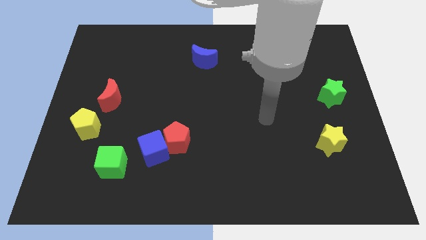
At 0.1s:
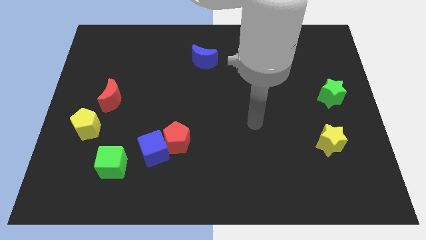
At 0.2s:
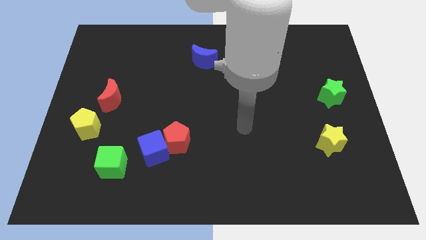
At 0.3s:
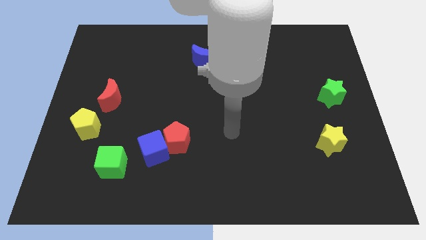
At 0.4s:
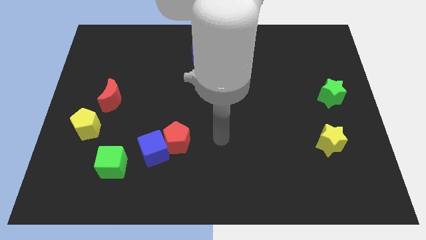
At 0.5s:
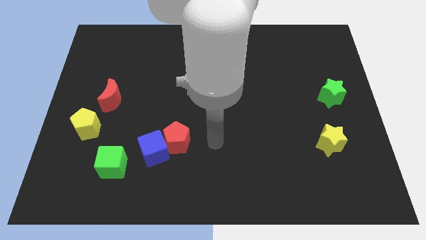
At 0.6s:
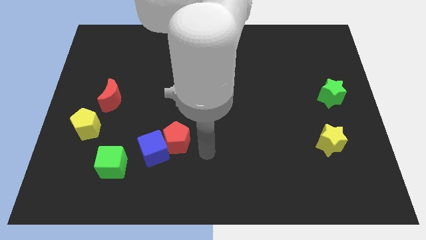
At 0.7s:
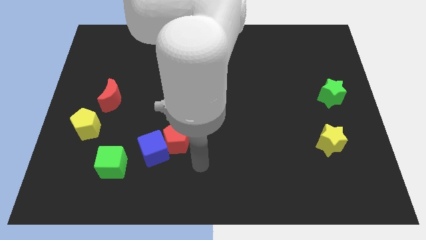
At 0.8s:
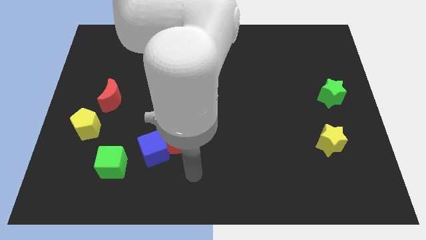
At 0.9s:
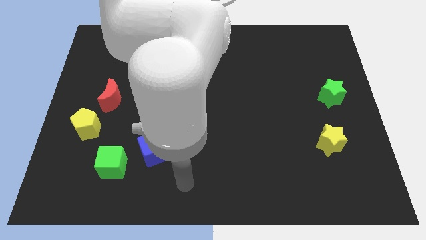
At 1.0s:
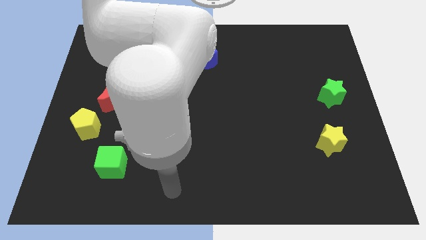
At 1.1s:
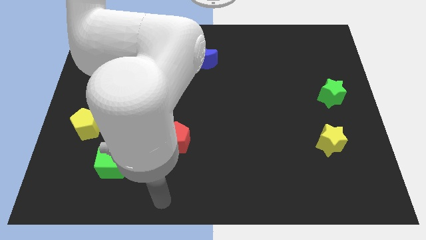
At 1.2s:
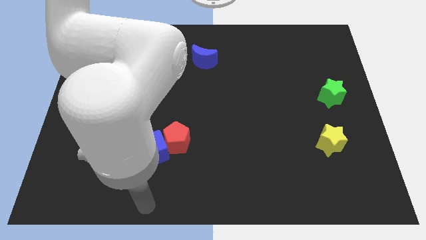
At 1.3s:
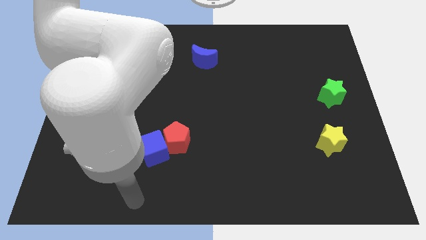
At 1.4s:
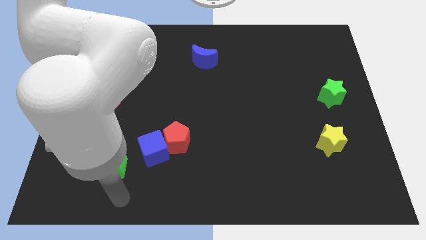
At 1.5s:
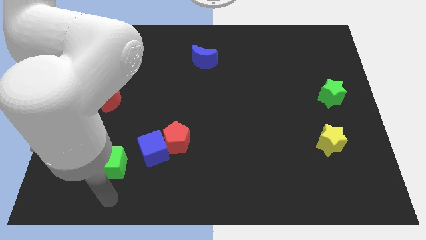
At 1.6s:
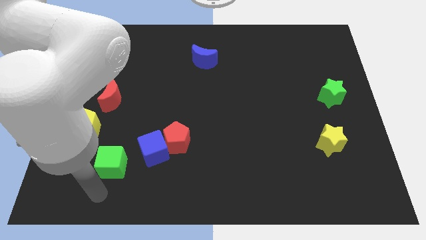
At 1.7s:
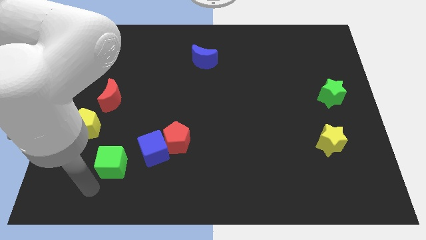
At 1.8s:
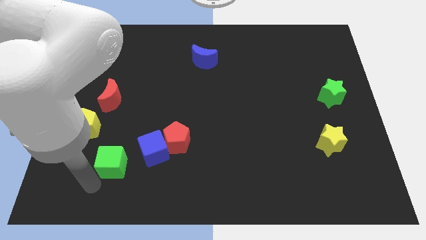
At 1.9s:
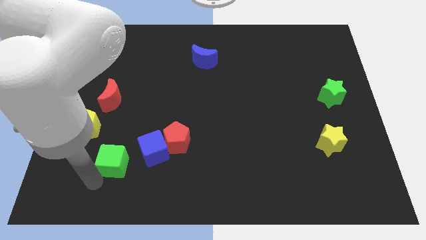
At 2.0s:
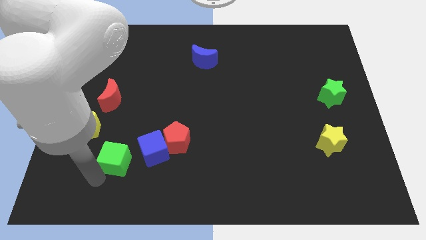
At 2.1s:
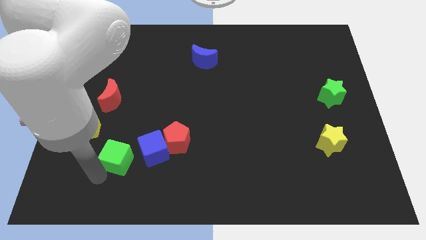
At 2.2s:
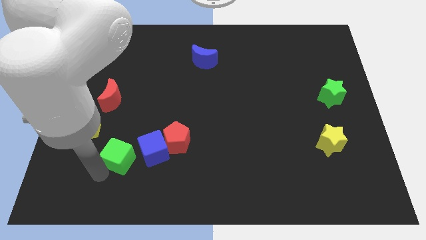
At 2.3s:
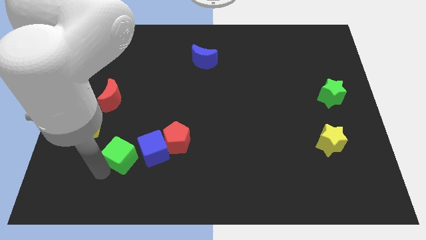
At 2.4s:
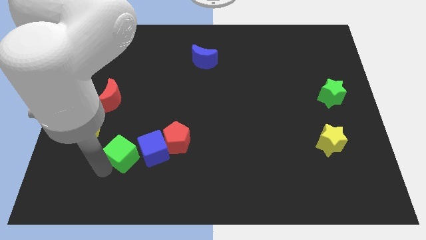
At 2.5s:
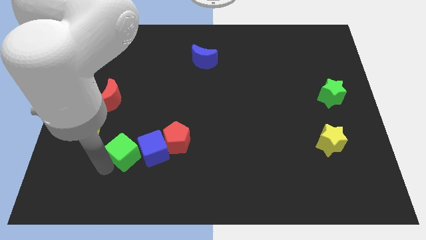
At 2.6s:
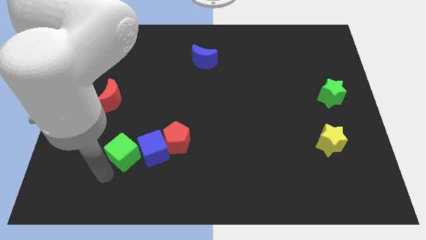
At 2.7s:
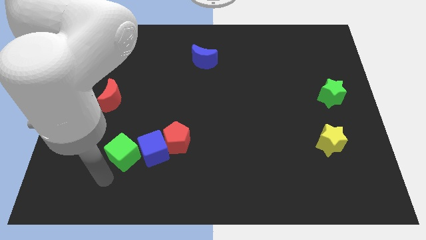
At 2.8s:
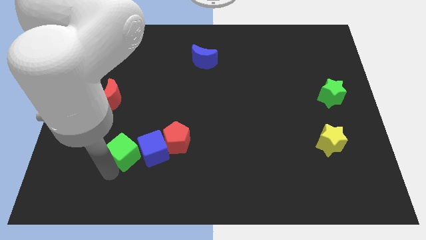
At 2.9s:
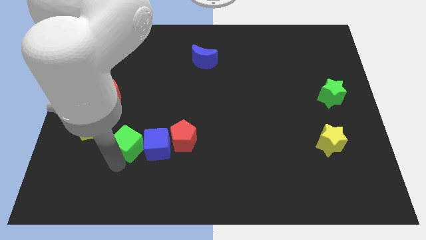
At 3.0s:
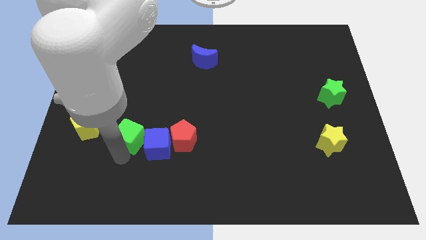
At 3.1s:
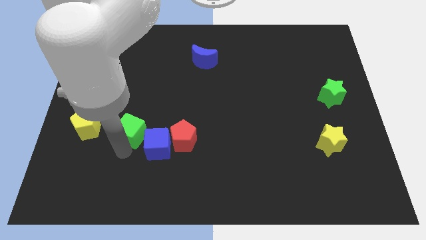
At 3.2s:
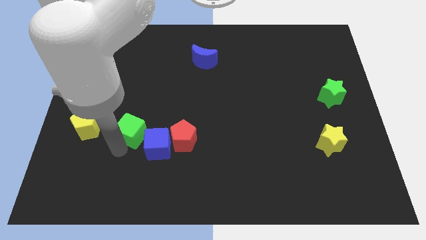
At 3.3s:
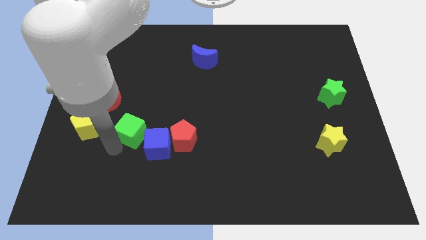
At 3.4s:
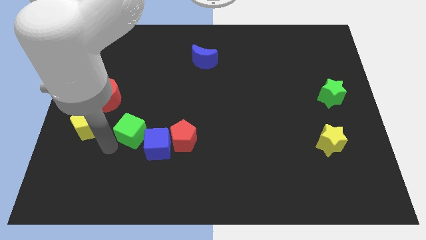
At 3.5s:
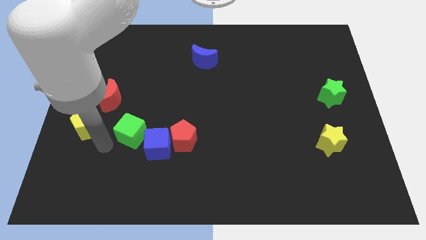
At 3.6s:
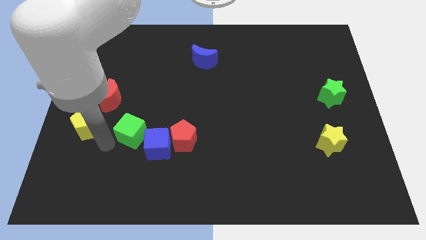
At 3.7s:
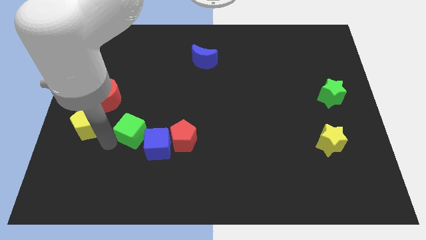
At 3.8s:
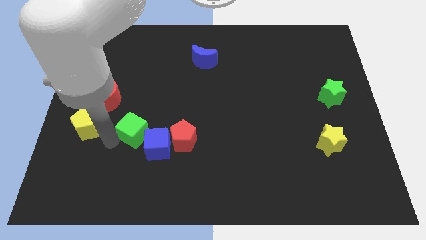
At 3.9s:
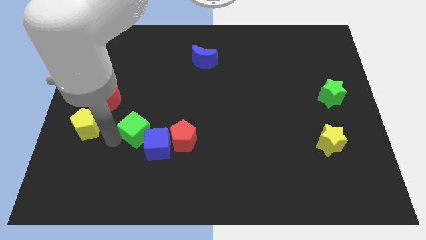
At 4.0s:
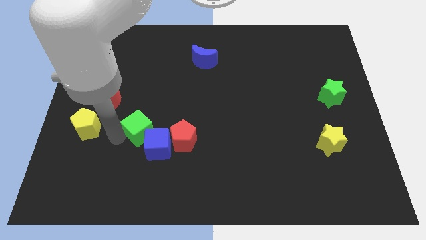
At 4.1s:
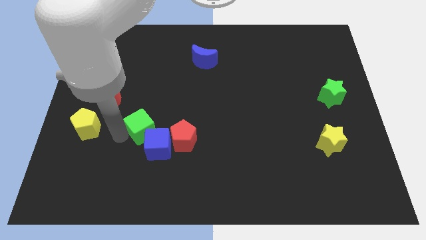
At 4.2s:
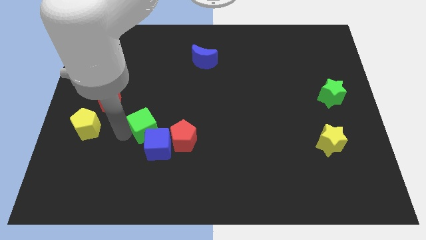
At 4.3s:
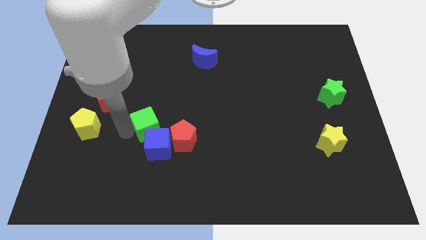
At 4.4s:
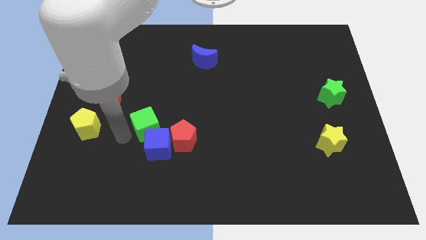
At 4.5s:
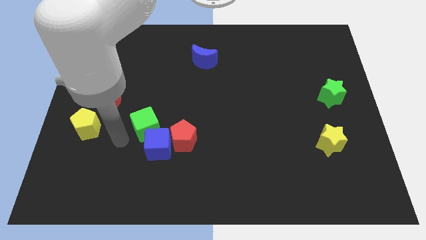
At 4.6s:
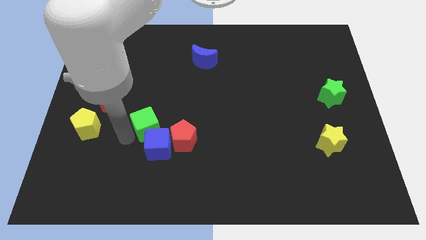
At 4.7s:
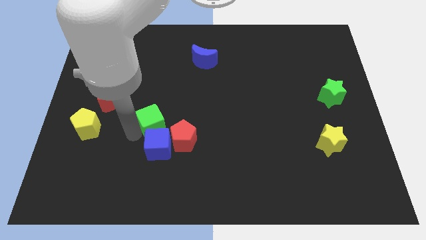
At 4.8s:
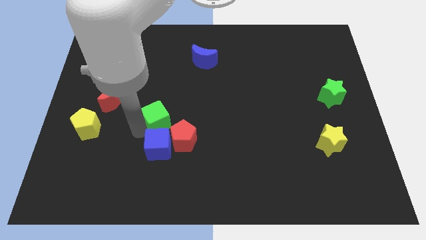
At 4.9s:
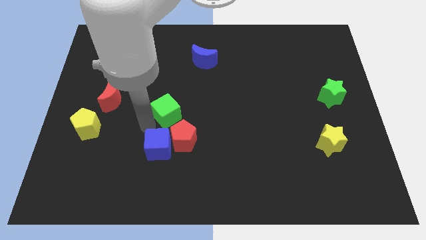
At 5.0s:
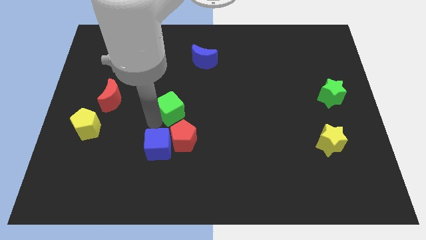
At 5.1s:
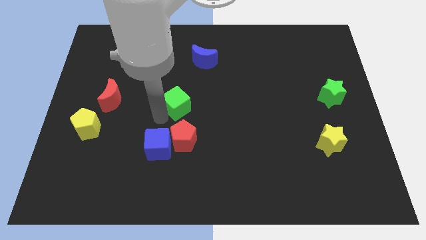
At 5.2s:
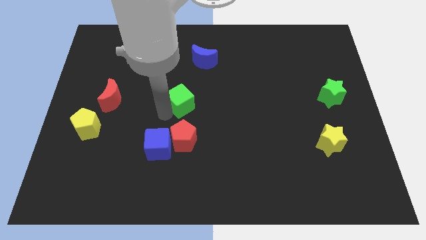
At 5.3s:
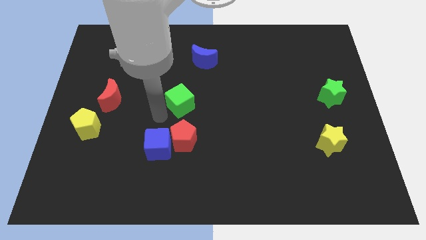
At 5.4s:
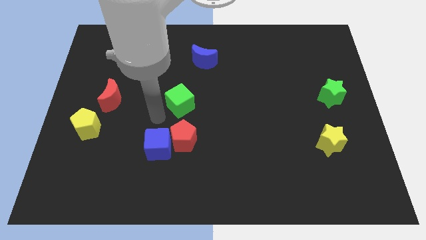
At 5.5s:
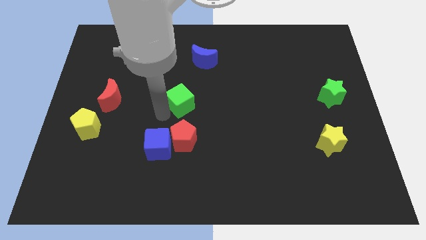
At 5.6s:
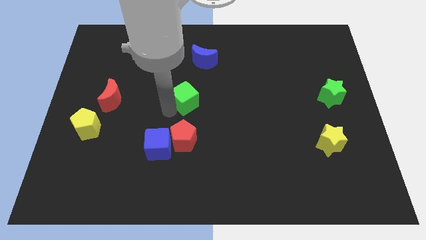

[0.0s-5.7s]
push the green cube to the bottom of the blue moon

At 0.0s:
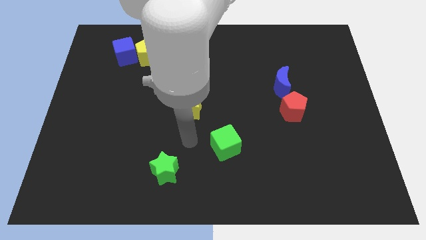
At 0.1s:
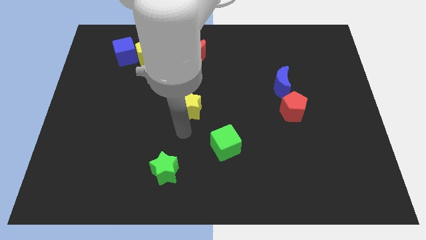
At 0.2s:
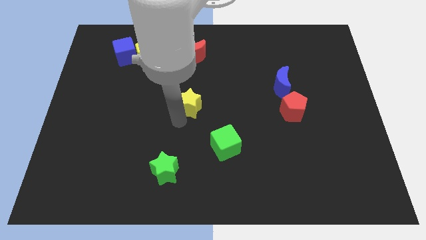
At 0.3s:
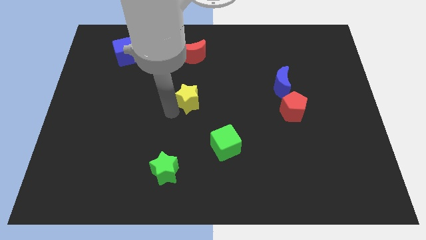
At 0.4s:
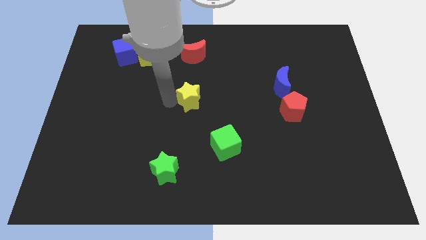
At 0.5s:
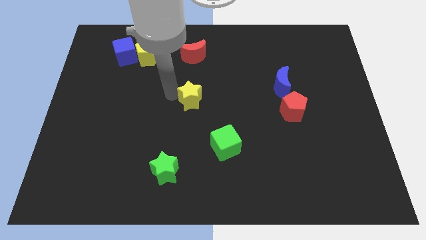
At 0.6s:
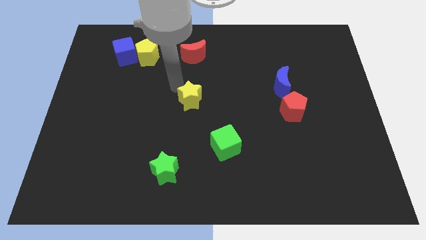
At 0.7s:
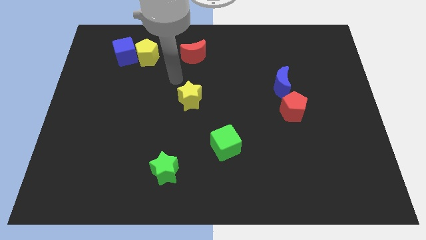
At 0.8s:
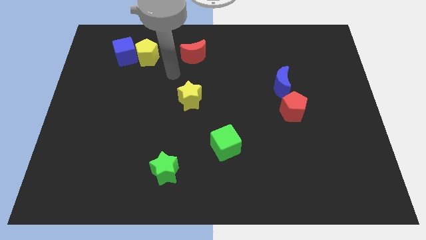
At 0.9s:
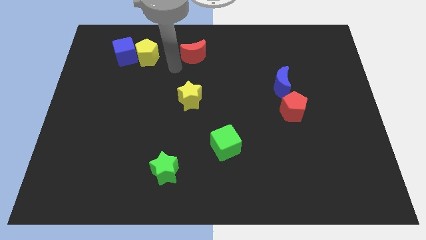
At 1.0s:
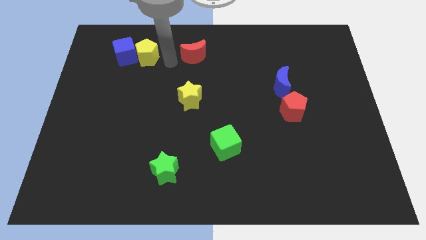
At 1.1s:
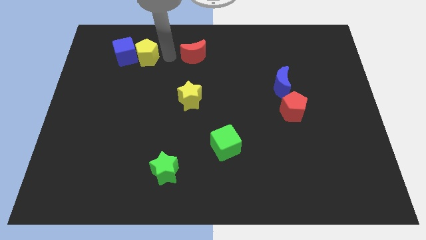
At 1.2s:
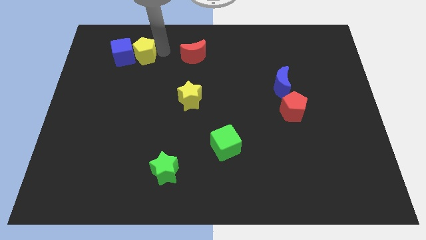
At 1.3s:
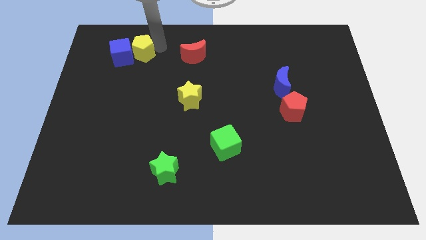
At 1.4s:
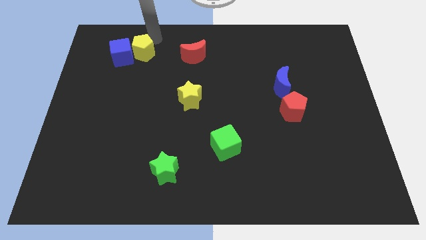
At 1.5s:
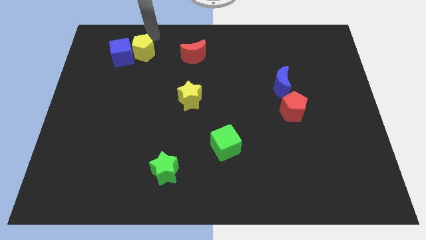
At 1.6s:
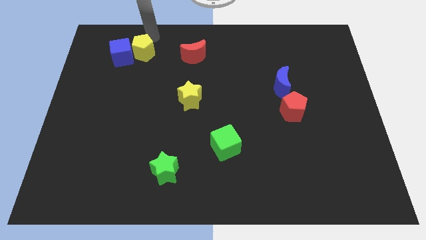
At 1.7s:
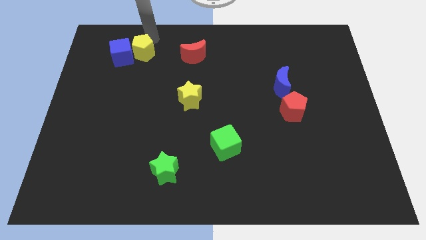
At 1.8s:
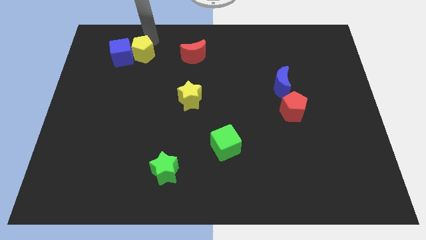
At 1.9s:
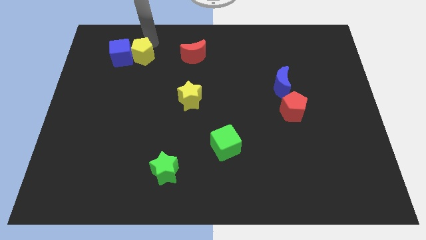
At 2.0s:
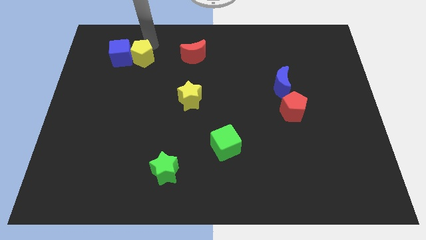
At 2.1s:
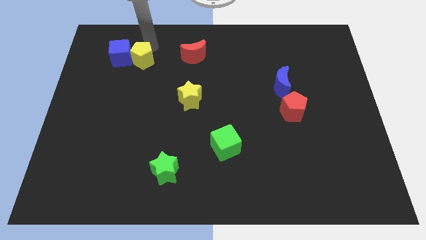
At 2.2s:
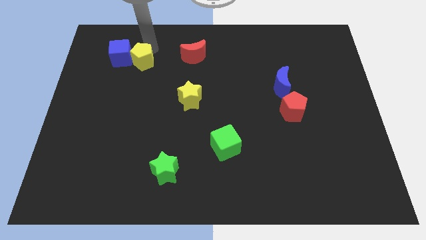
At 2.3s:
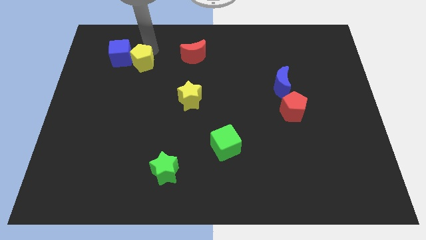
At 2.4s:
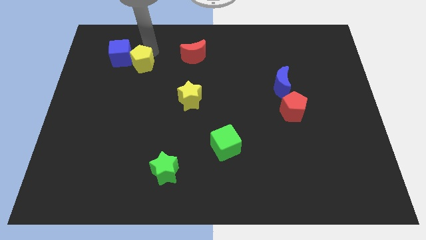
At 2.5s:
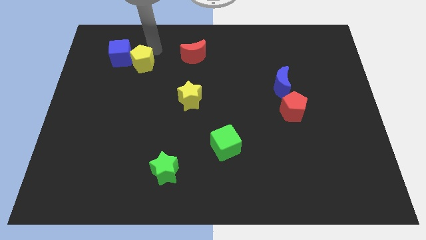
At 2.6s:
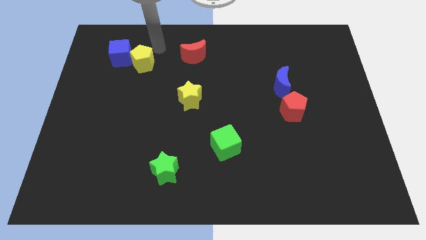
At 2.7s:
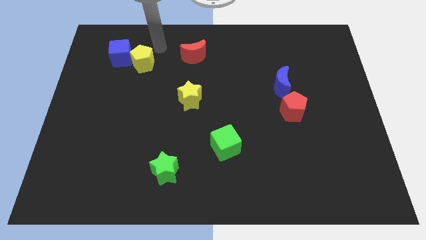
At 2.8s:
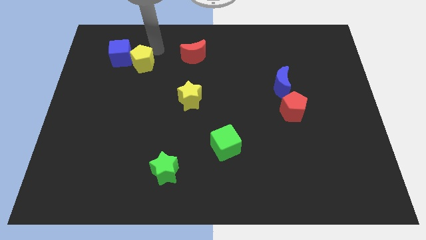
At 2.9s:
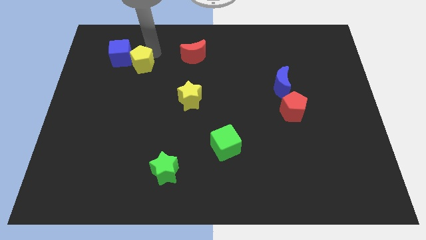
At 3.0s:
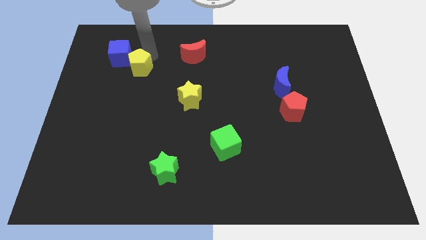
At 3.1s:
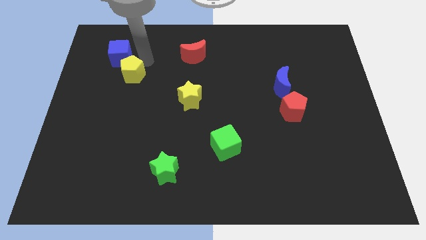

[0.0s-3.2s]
put the yellow pentagon to the bottom of the blue cube
